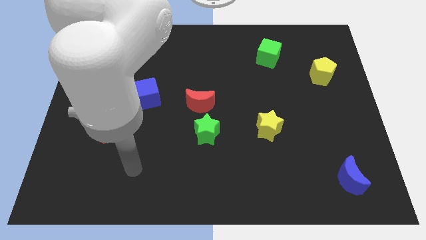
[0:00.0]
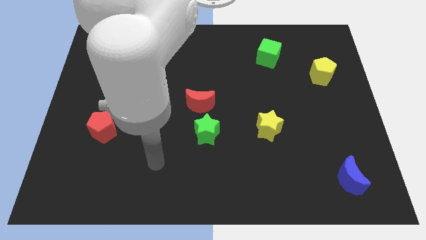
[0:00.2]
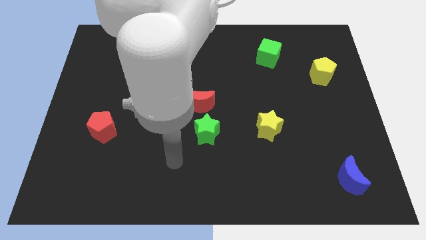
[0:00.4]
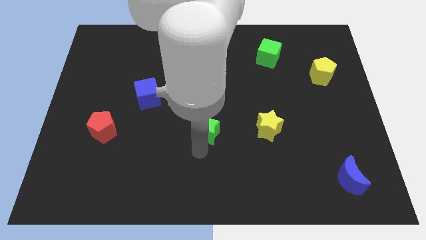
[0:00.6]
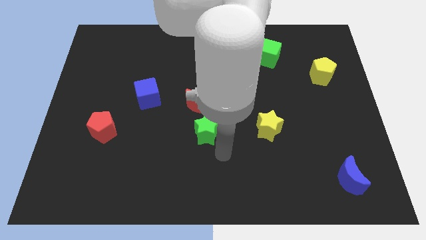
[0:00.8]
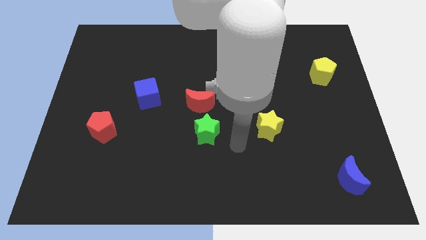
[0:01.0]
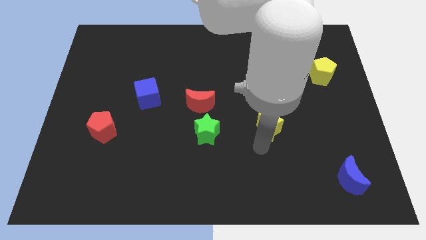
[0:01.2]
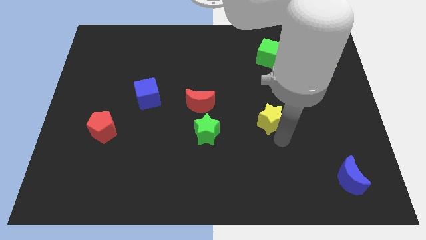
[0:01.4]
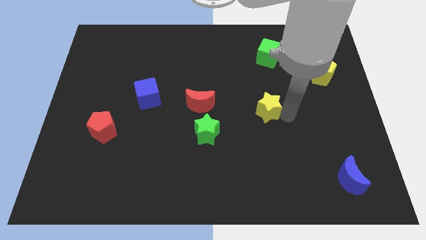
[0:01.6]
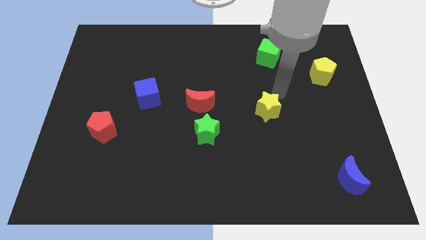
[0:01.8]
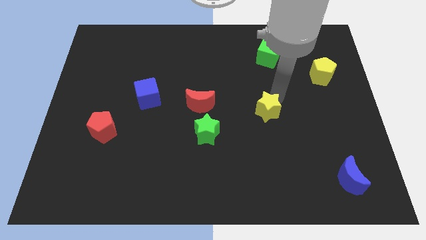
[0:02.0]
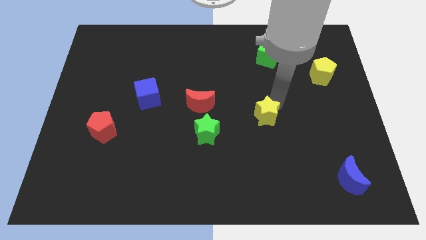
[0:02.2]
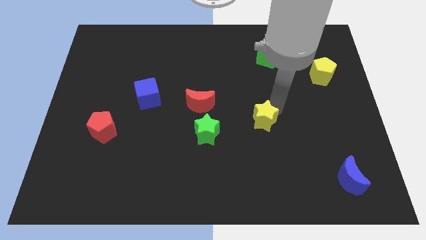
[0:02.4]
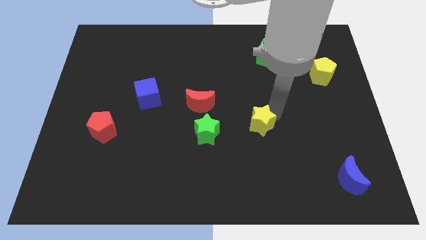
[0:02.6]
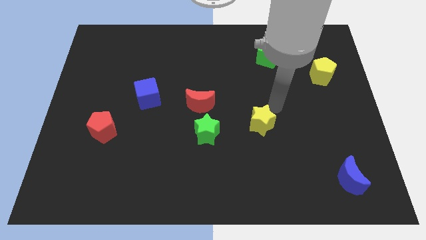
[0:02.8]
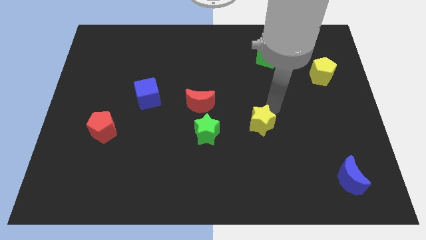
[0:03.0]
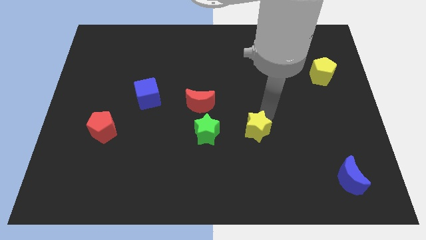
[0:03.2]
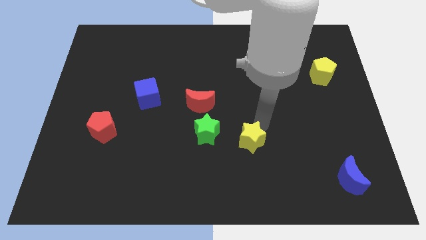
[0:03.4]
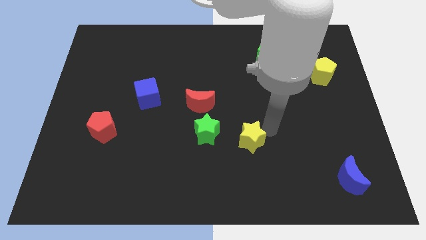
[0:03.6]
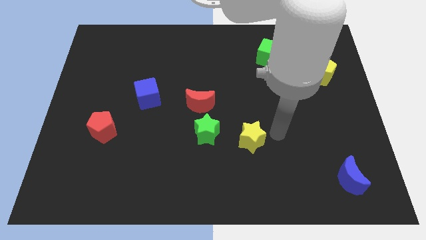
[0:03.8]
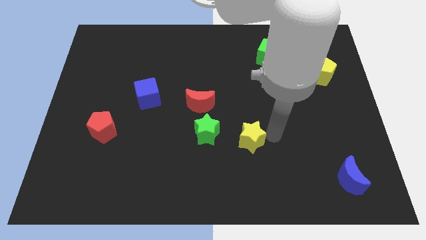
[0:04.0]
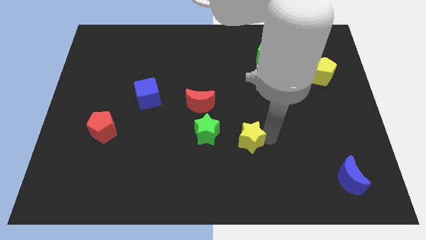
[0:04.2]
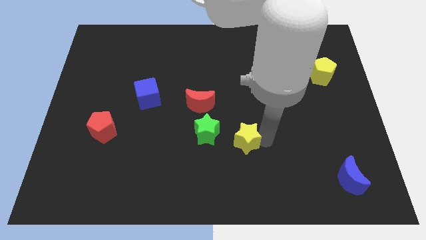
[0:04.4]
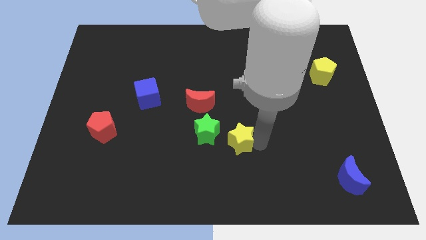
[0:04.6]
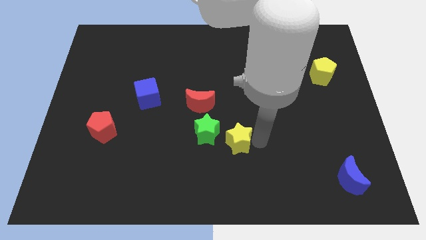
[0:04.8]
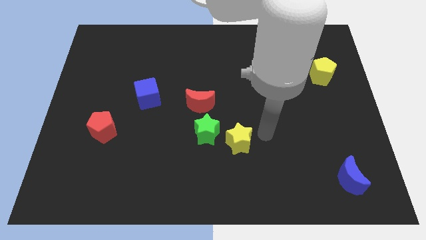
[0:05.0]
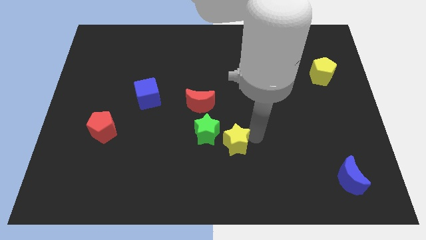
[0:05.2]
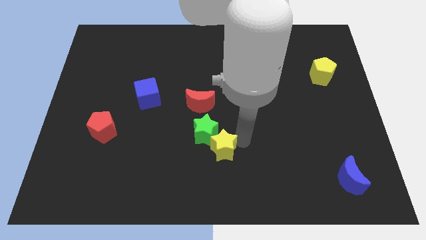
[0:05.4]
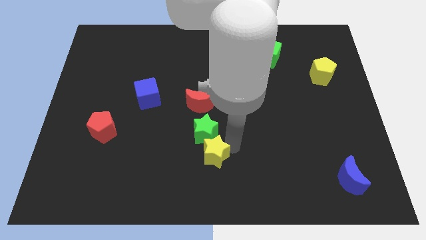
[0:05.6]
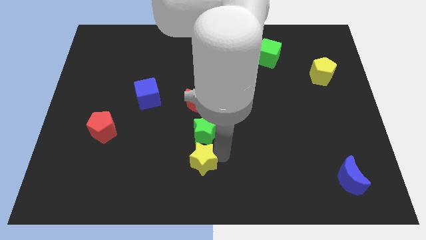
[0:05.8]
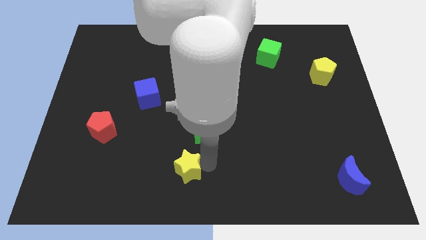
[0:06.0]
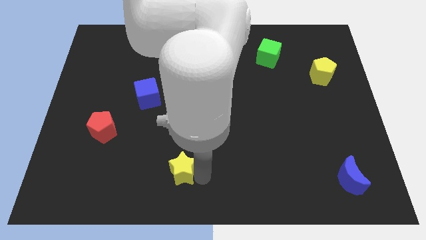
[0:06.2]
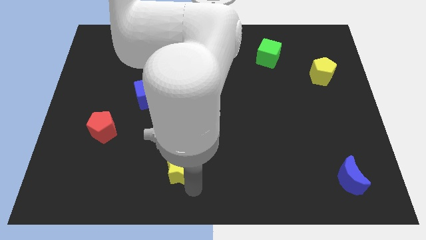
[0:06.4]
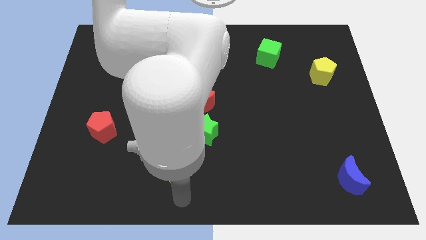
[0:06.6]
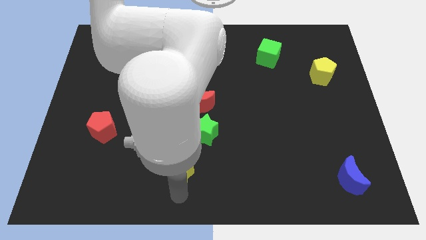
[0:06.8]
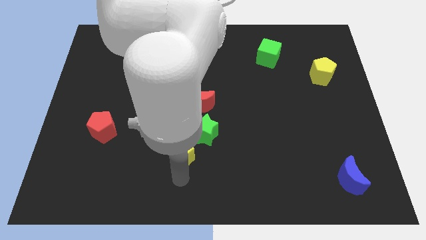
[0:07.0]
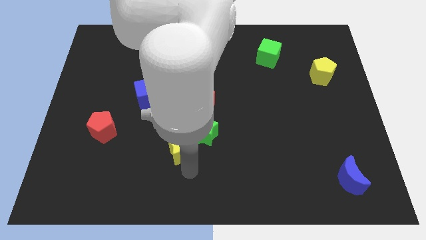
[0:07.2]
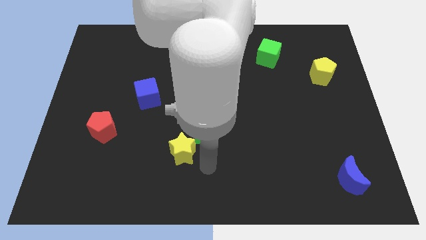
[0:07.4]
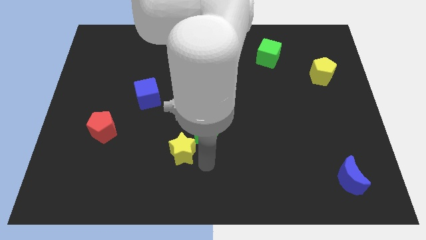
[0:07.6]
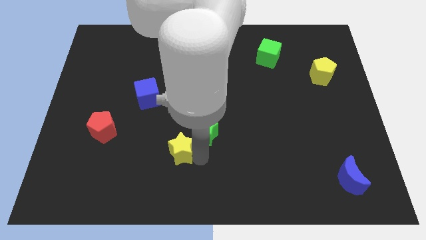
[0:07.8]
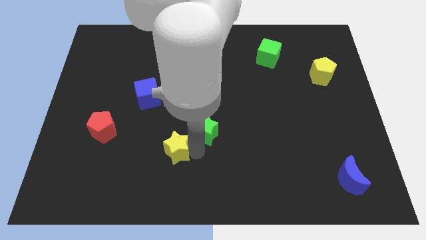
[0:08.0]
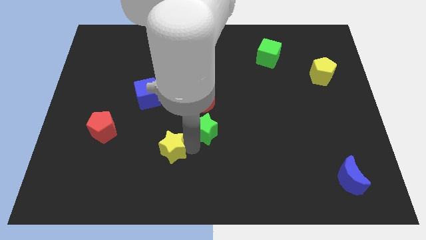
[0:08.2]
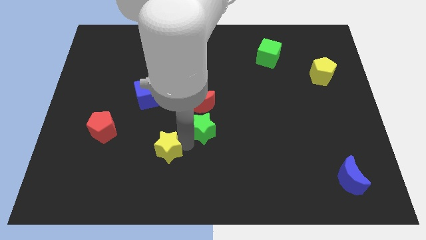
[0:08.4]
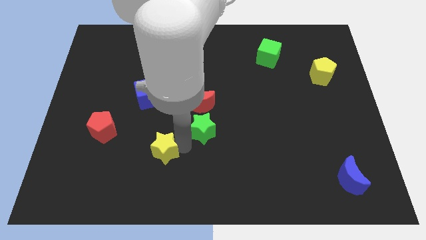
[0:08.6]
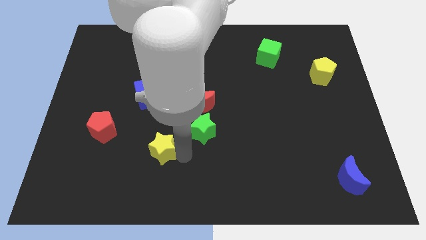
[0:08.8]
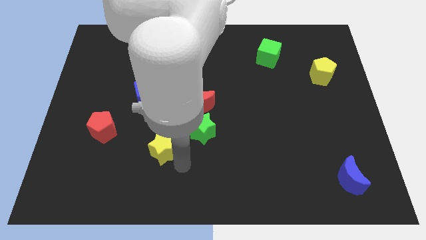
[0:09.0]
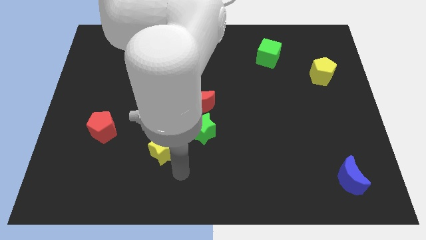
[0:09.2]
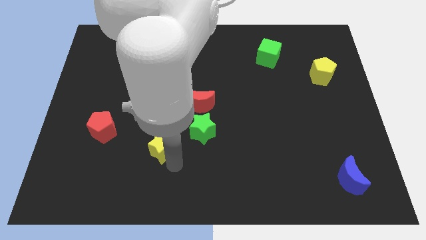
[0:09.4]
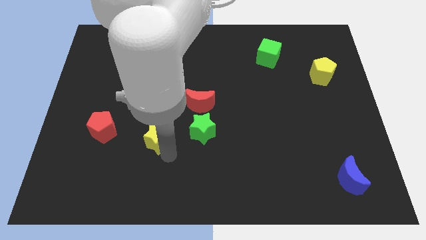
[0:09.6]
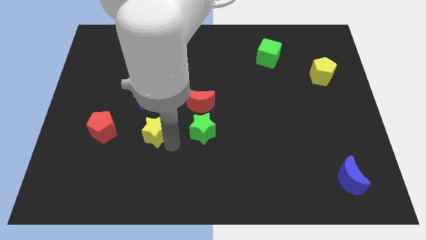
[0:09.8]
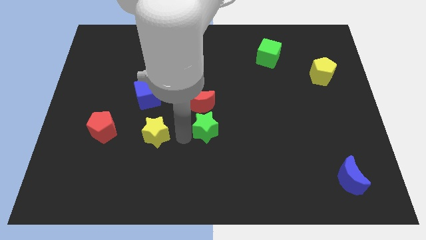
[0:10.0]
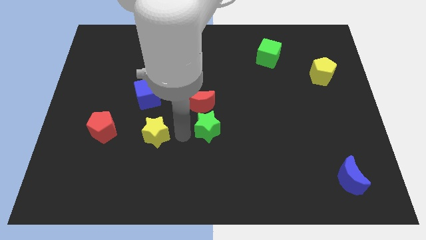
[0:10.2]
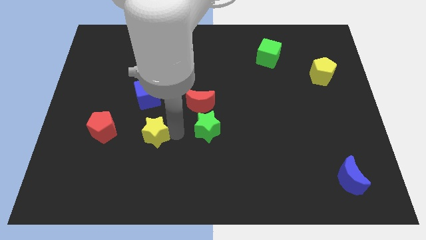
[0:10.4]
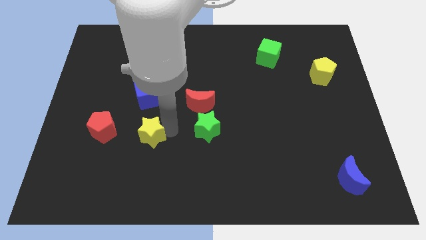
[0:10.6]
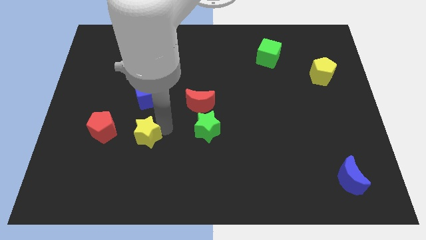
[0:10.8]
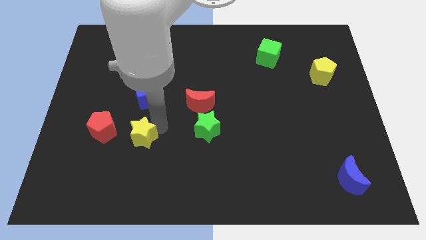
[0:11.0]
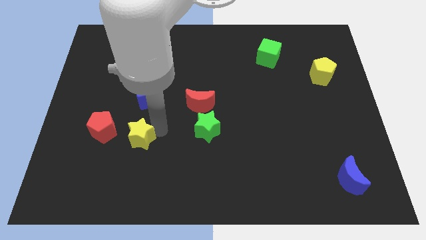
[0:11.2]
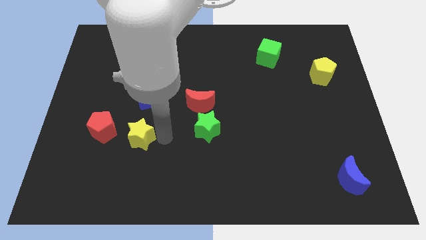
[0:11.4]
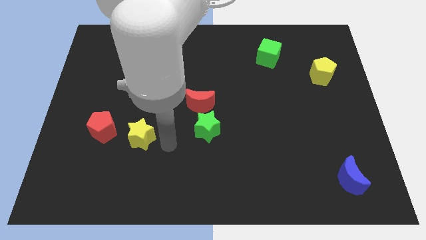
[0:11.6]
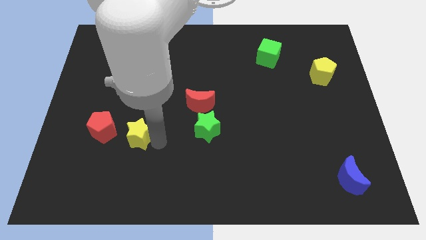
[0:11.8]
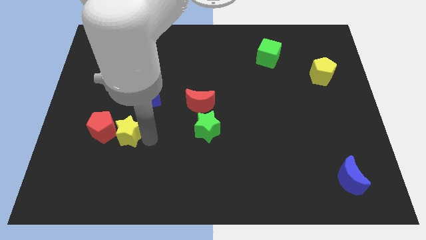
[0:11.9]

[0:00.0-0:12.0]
put the yellow star towards the red pentagon

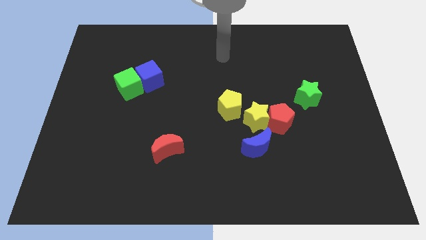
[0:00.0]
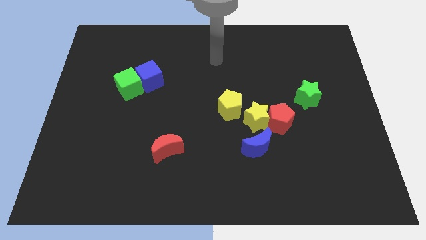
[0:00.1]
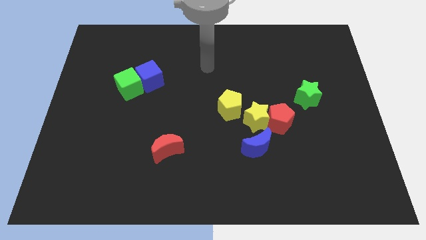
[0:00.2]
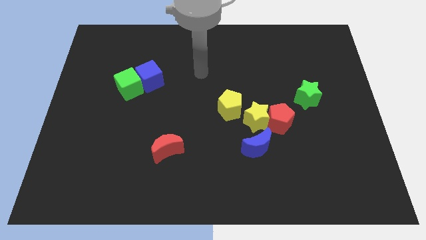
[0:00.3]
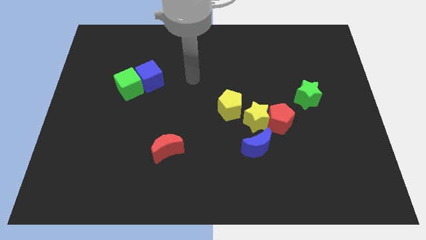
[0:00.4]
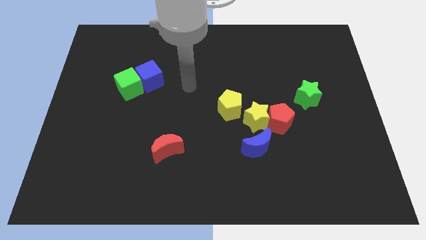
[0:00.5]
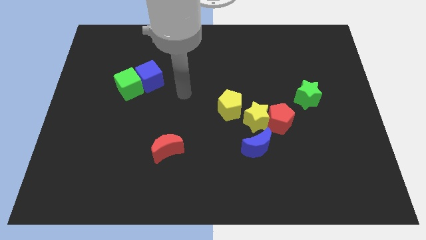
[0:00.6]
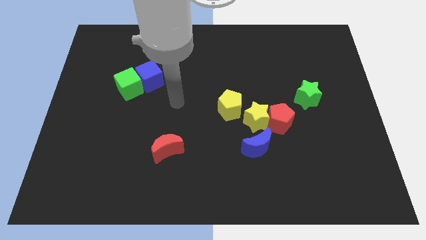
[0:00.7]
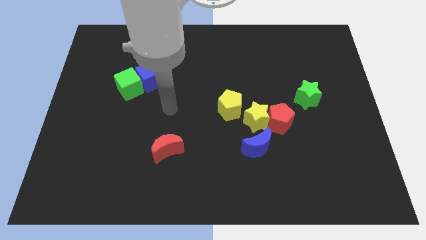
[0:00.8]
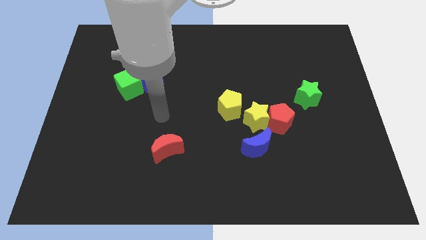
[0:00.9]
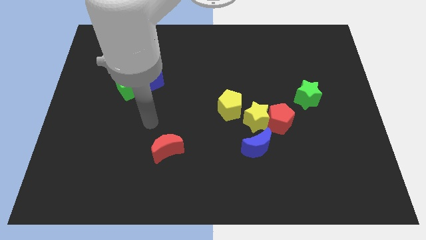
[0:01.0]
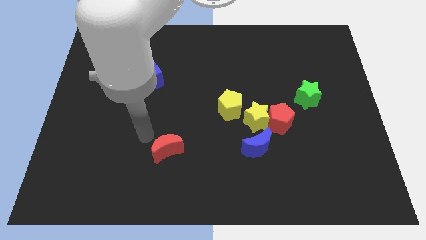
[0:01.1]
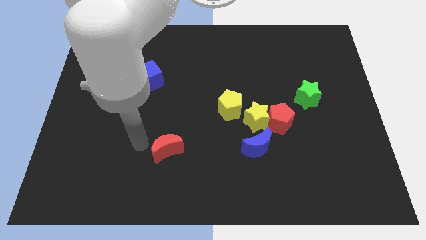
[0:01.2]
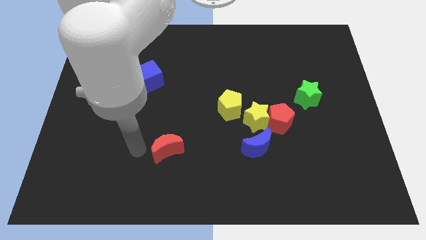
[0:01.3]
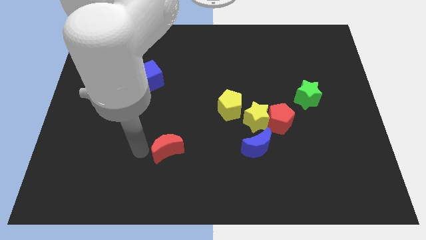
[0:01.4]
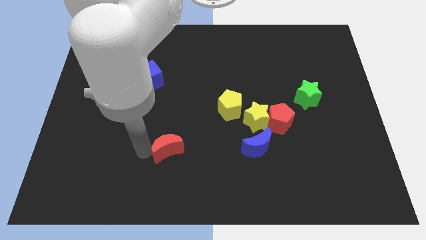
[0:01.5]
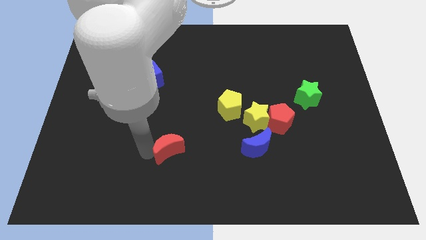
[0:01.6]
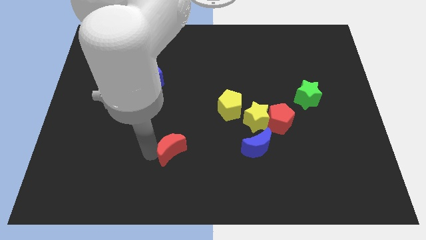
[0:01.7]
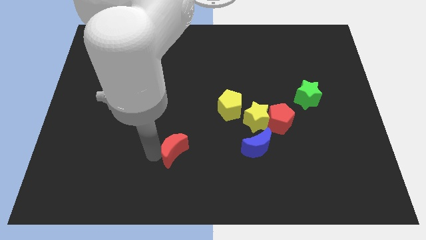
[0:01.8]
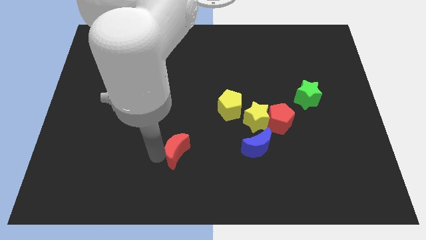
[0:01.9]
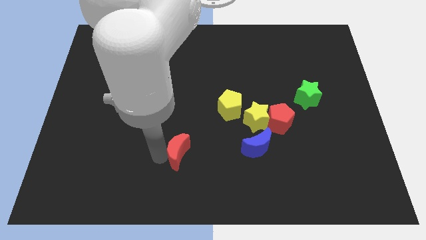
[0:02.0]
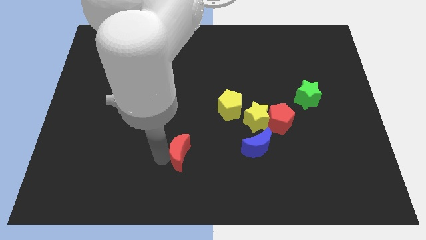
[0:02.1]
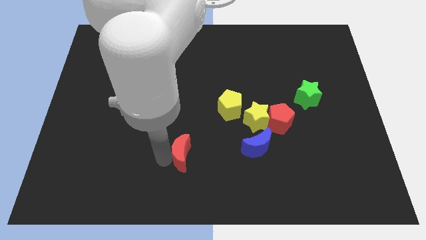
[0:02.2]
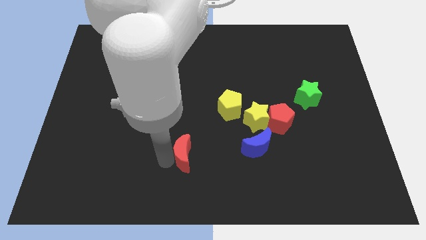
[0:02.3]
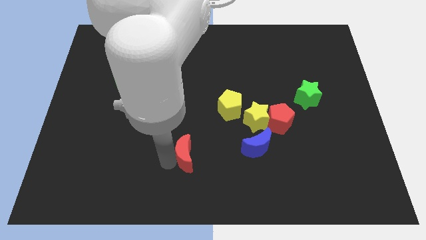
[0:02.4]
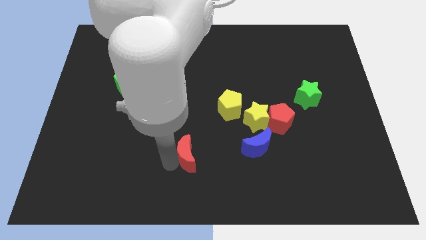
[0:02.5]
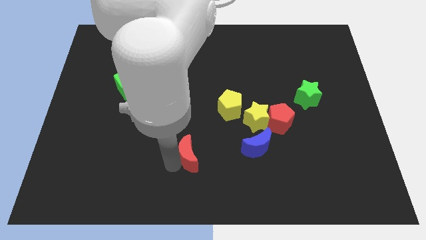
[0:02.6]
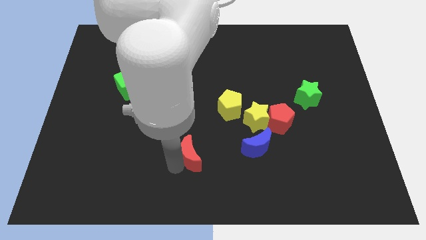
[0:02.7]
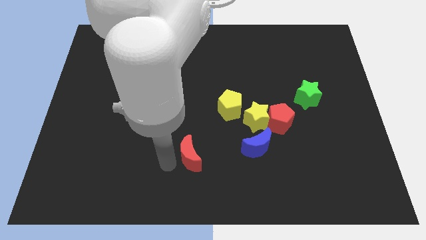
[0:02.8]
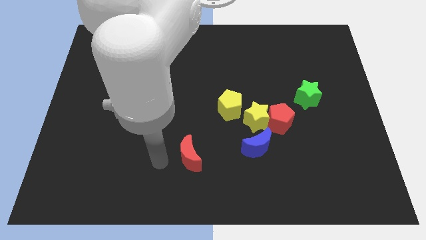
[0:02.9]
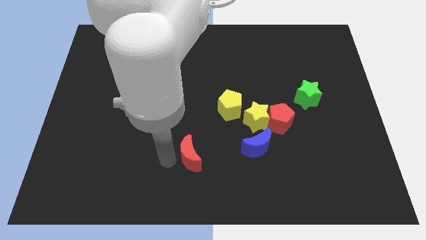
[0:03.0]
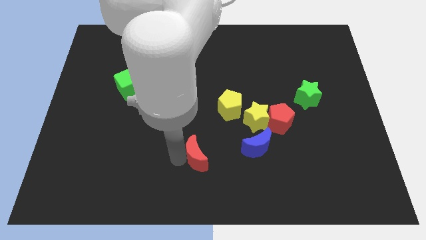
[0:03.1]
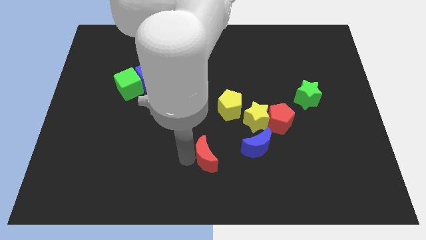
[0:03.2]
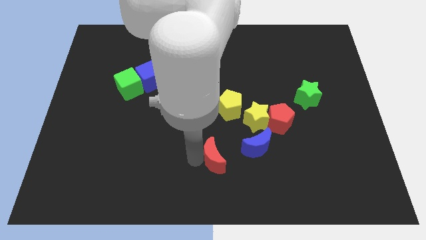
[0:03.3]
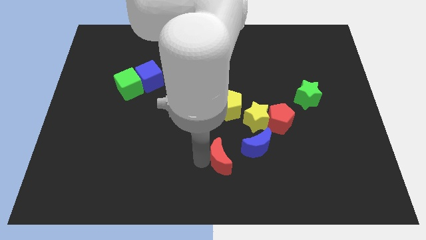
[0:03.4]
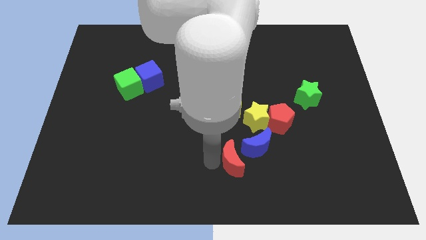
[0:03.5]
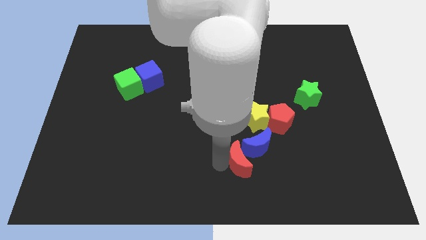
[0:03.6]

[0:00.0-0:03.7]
put the red moon to the blue moon
